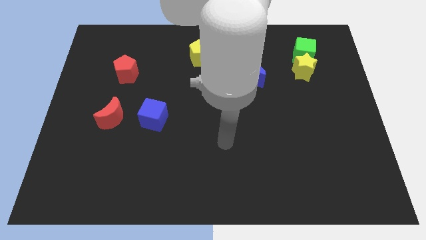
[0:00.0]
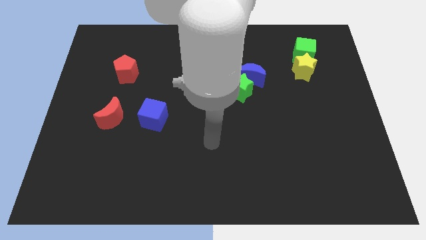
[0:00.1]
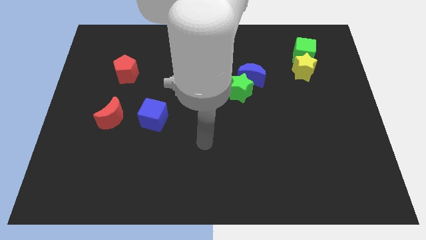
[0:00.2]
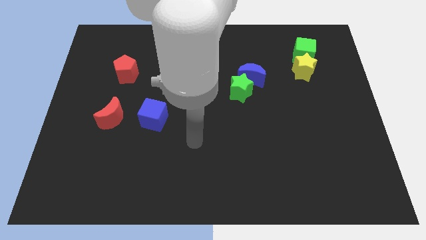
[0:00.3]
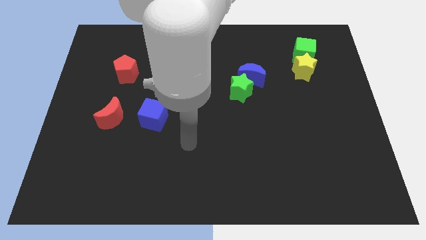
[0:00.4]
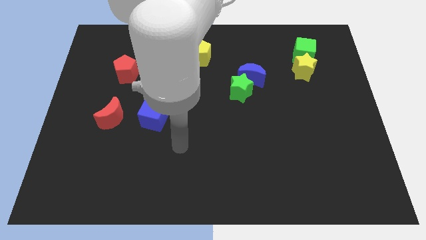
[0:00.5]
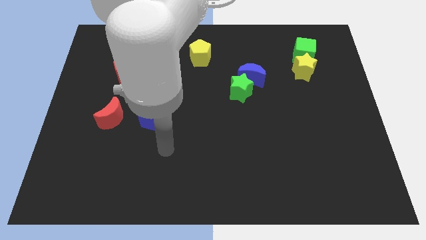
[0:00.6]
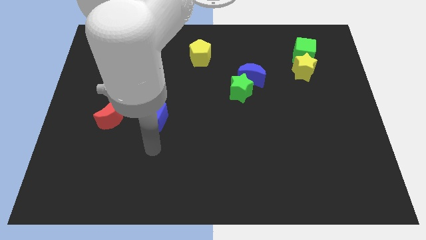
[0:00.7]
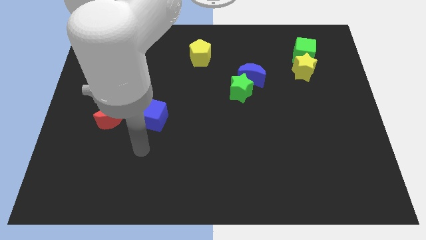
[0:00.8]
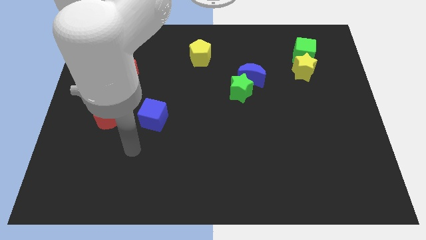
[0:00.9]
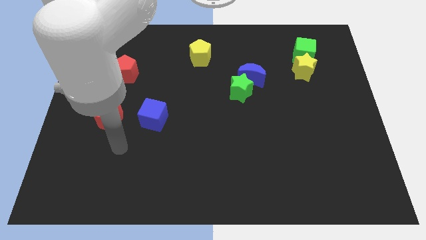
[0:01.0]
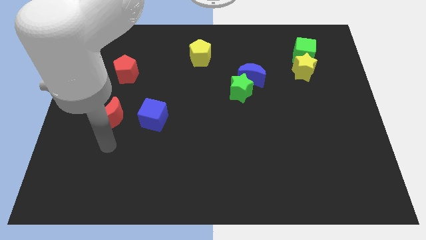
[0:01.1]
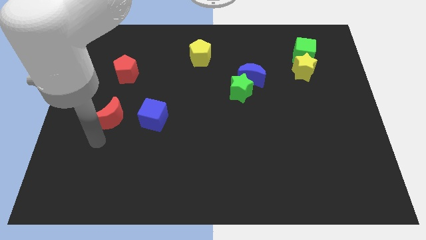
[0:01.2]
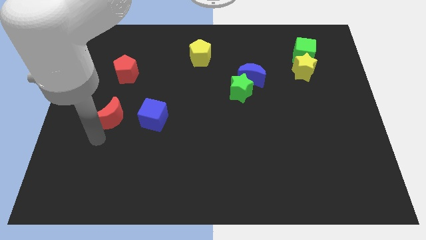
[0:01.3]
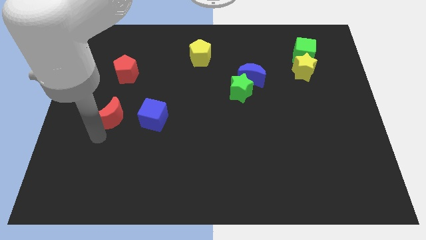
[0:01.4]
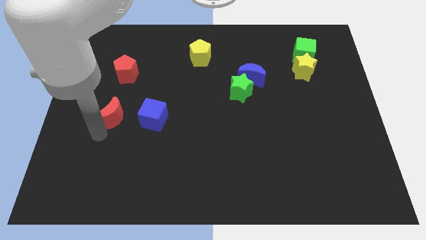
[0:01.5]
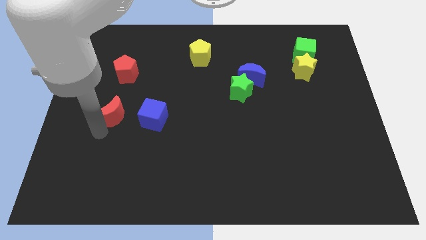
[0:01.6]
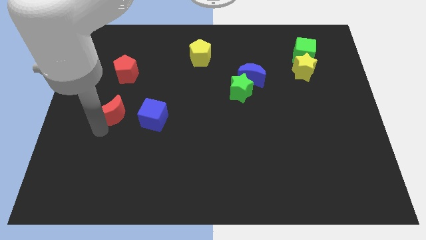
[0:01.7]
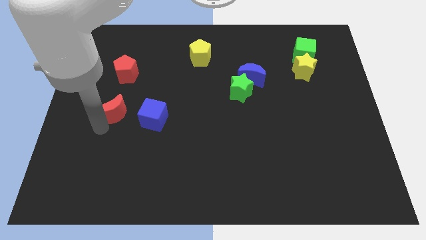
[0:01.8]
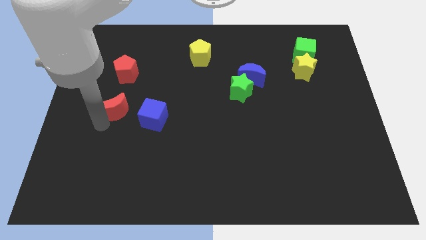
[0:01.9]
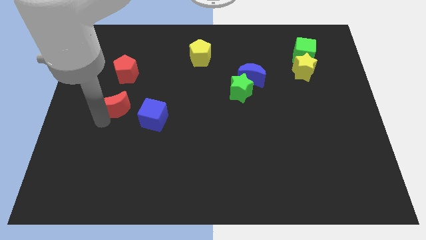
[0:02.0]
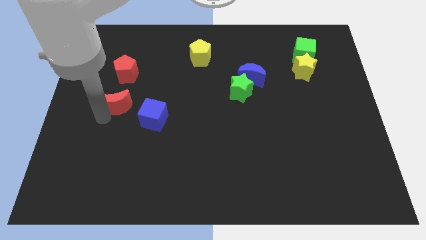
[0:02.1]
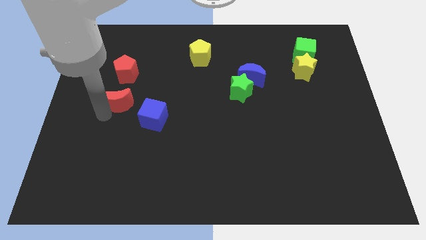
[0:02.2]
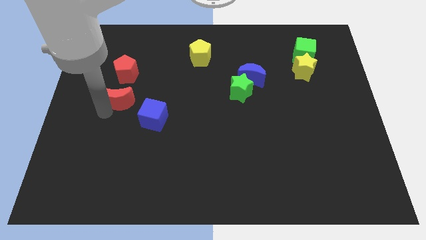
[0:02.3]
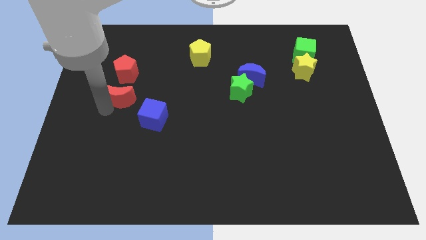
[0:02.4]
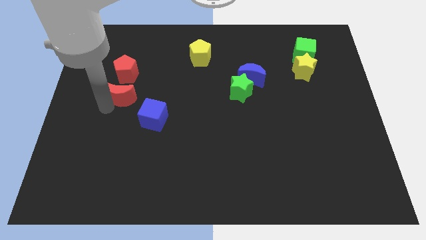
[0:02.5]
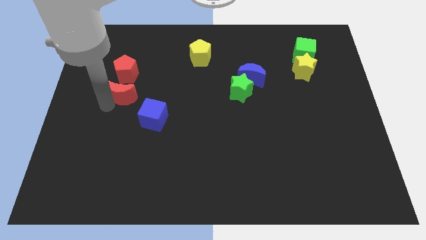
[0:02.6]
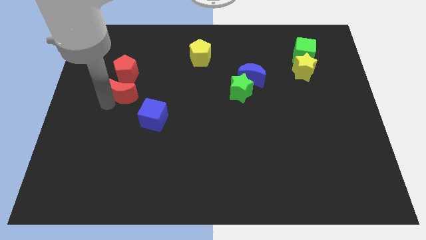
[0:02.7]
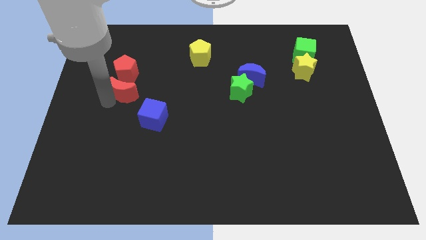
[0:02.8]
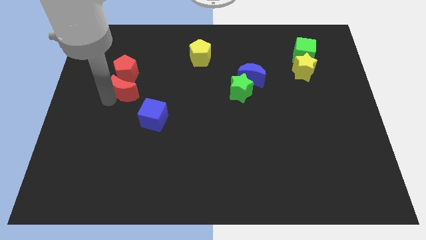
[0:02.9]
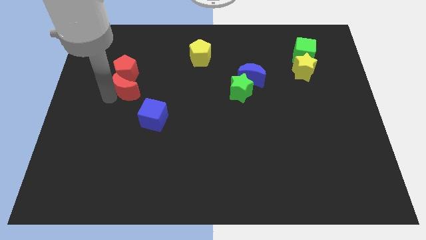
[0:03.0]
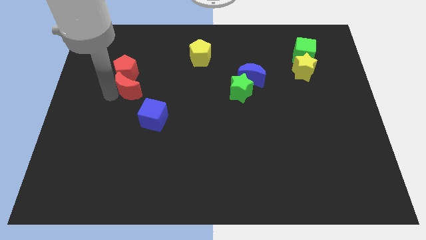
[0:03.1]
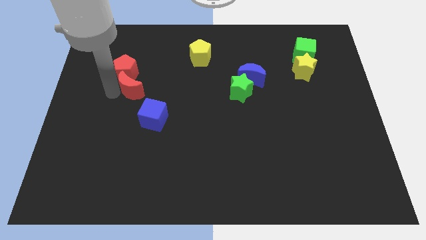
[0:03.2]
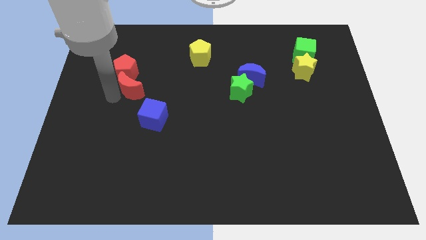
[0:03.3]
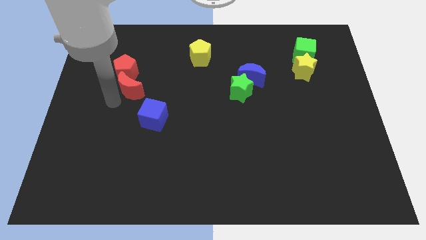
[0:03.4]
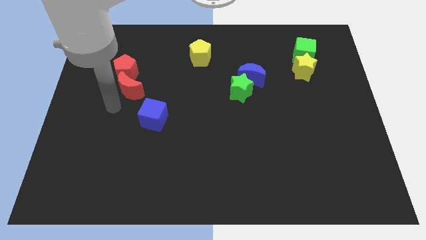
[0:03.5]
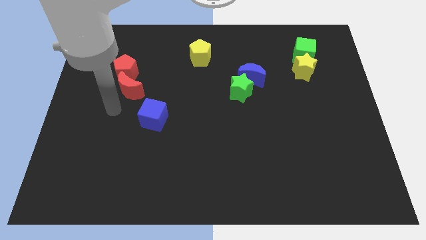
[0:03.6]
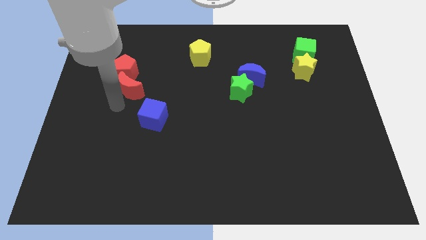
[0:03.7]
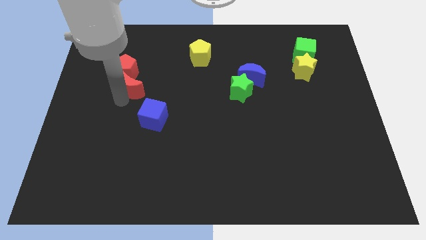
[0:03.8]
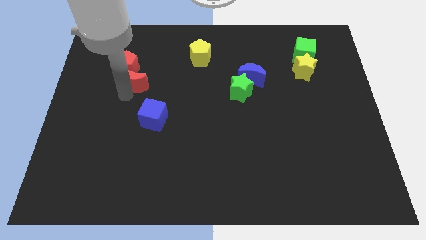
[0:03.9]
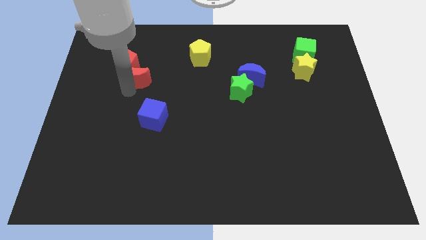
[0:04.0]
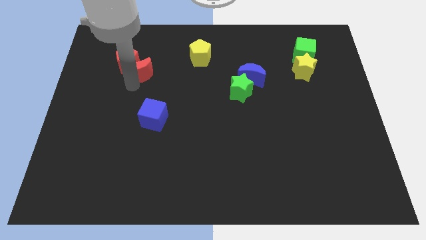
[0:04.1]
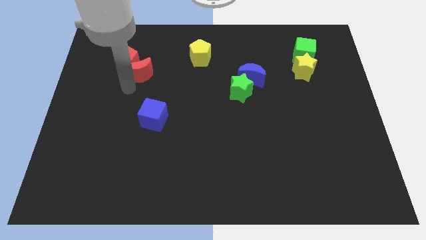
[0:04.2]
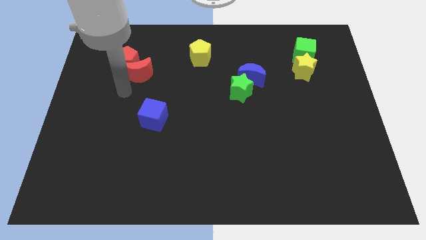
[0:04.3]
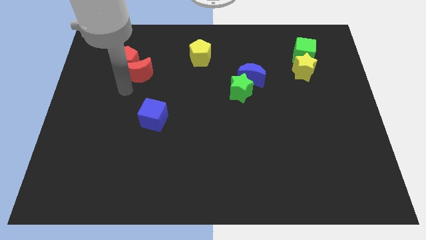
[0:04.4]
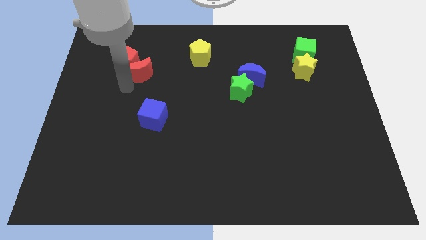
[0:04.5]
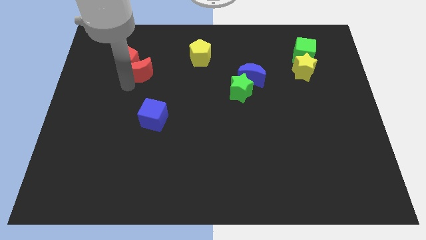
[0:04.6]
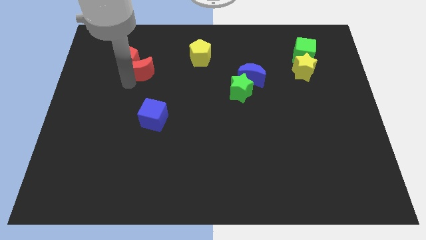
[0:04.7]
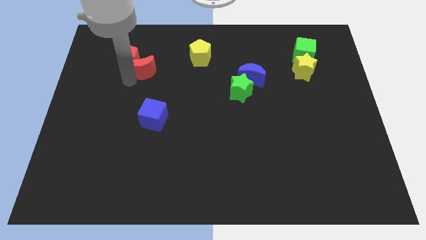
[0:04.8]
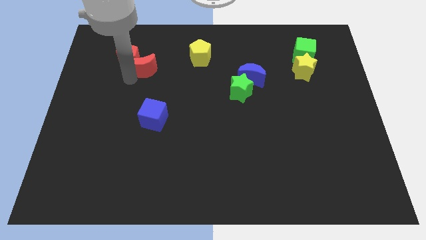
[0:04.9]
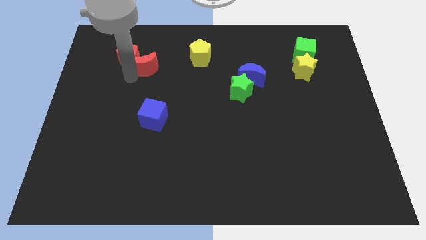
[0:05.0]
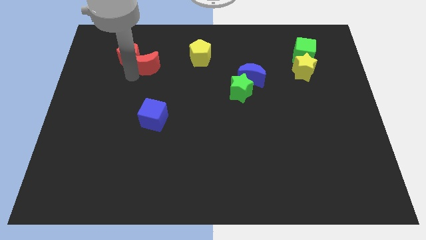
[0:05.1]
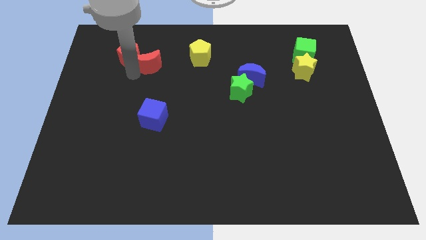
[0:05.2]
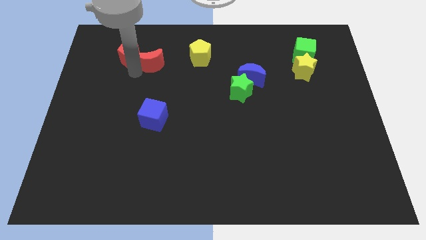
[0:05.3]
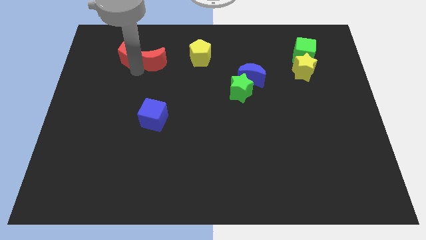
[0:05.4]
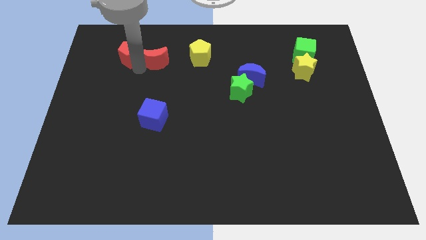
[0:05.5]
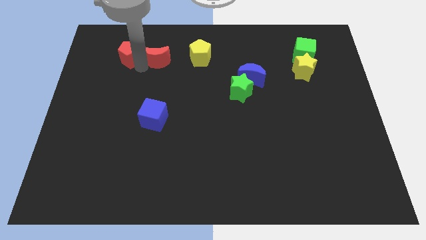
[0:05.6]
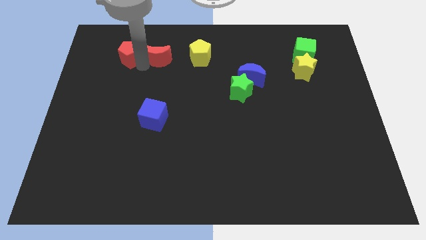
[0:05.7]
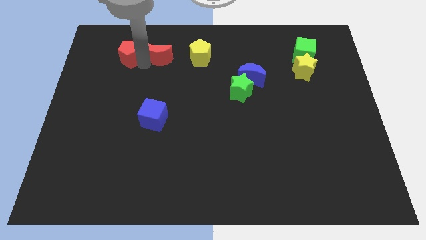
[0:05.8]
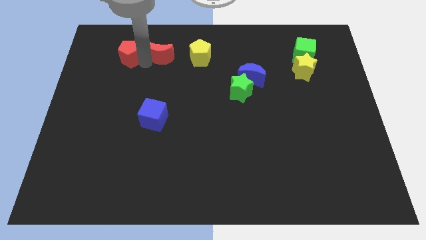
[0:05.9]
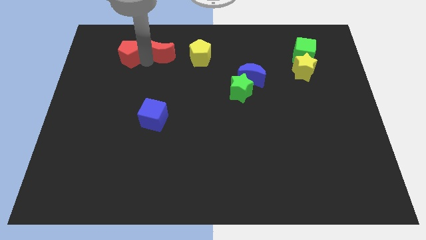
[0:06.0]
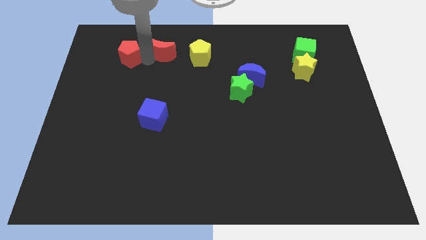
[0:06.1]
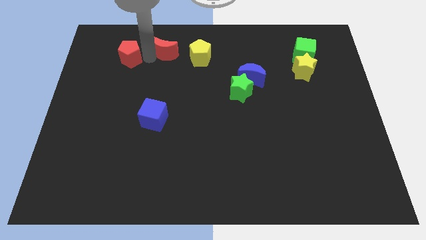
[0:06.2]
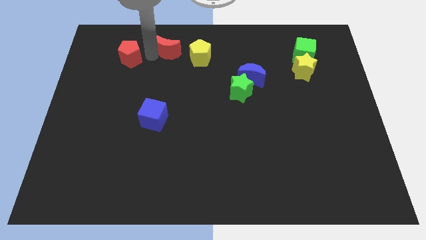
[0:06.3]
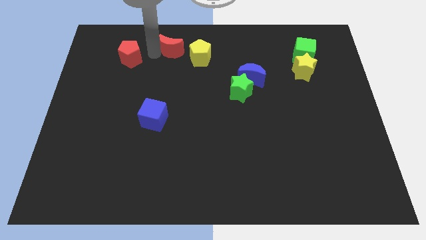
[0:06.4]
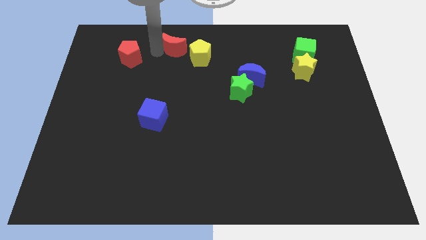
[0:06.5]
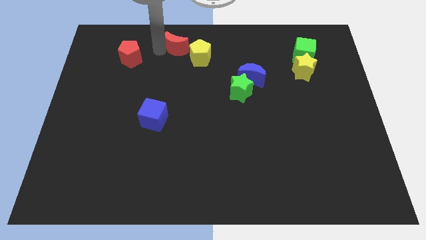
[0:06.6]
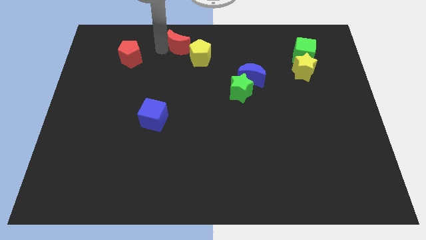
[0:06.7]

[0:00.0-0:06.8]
push the red moon to the top side

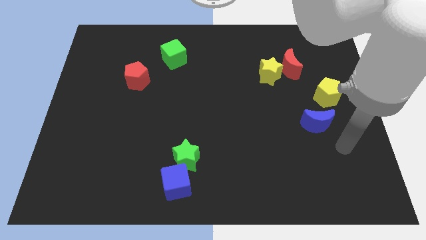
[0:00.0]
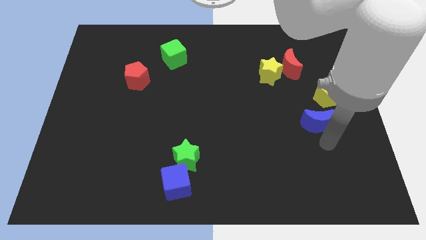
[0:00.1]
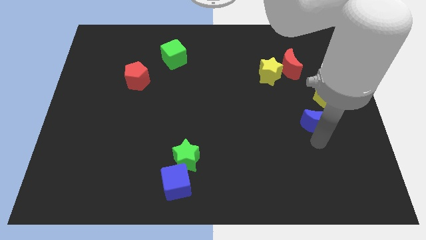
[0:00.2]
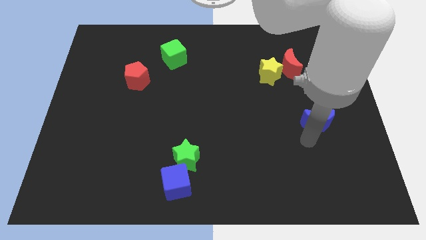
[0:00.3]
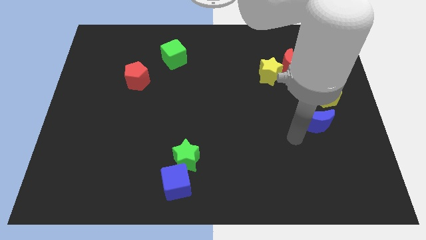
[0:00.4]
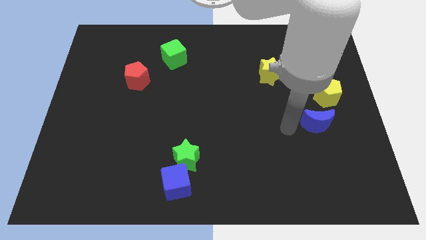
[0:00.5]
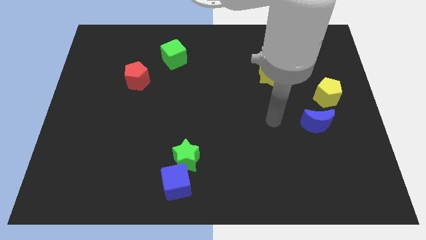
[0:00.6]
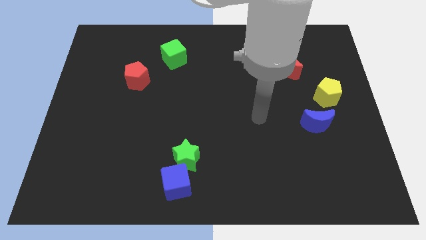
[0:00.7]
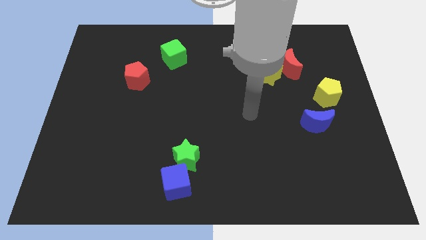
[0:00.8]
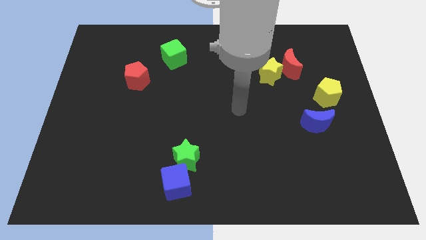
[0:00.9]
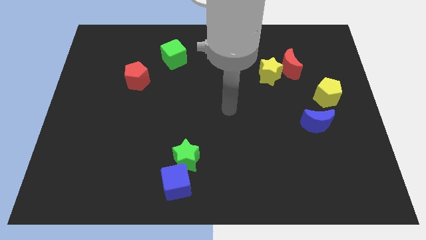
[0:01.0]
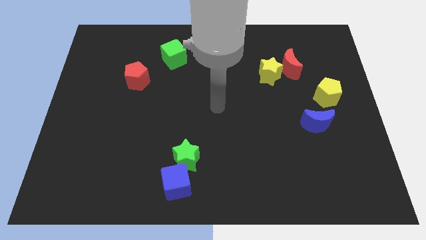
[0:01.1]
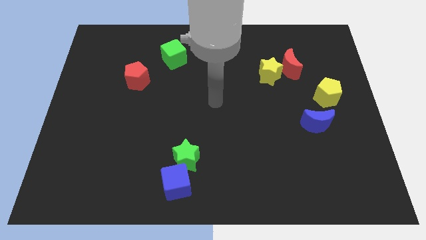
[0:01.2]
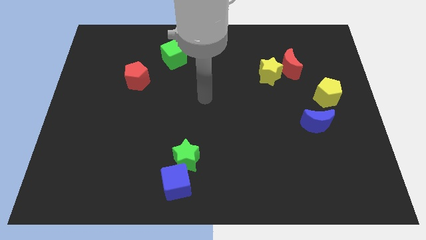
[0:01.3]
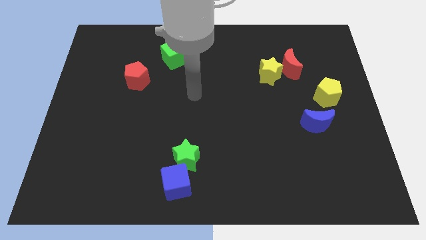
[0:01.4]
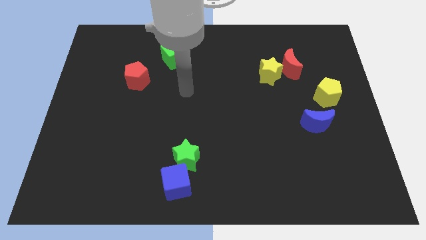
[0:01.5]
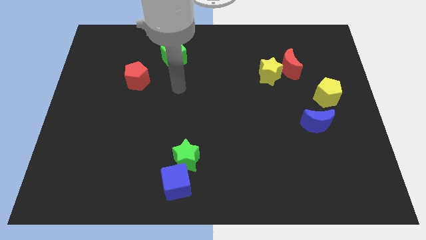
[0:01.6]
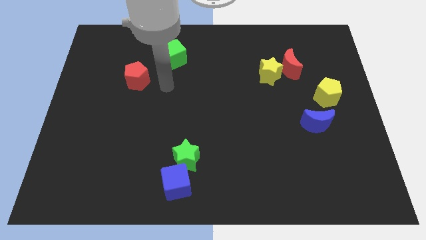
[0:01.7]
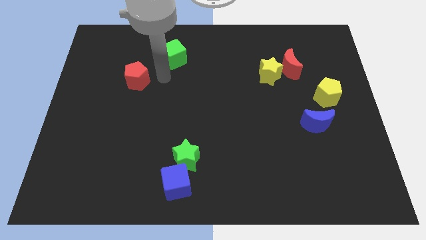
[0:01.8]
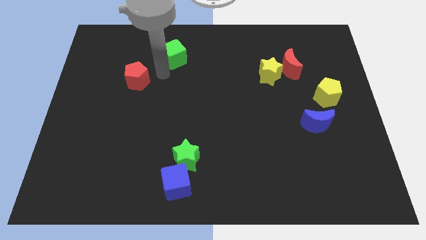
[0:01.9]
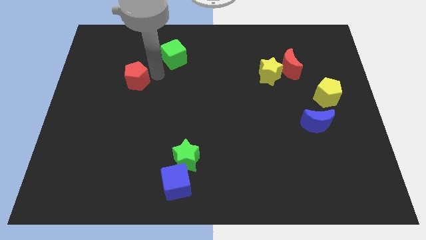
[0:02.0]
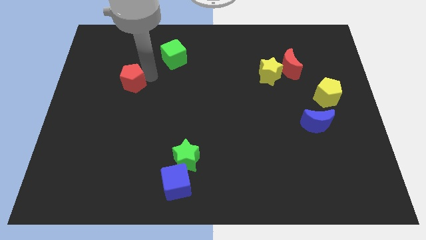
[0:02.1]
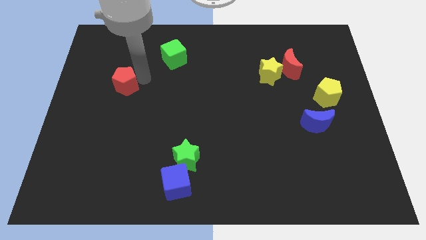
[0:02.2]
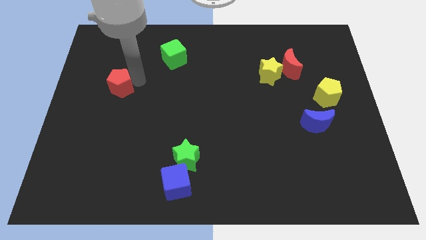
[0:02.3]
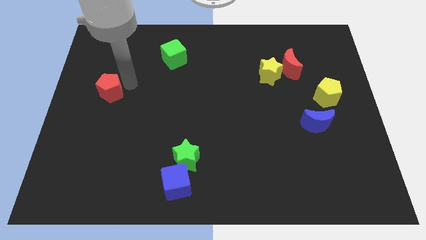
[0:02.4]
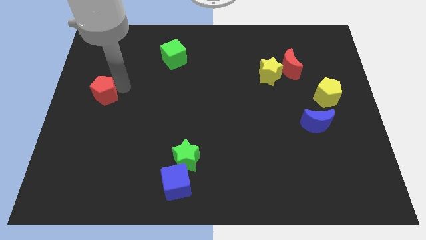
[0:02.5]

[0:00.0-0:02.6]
slide the red pentagon to the left side
